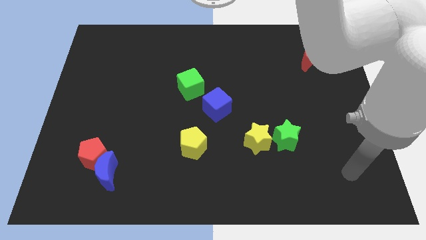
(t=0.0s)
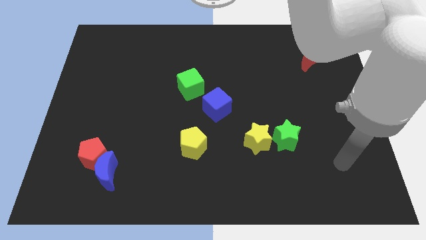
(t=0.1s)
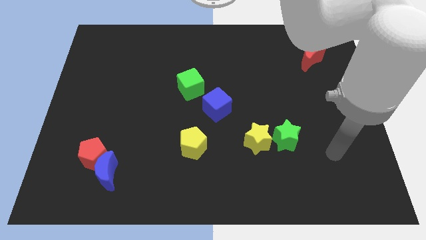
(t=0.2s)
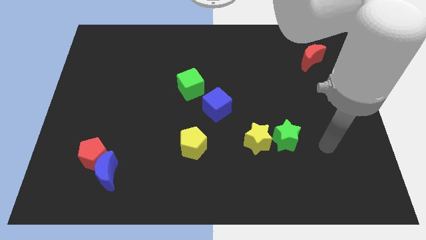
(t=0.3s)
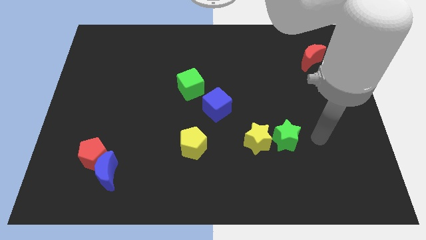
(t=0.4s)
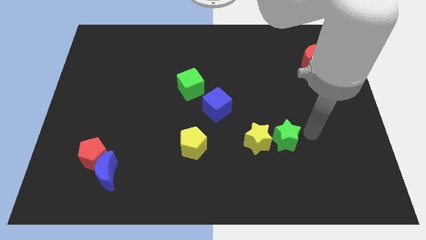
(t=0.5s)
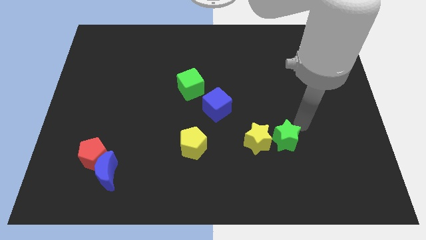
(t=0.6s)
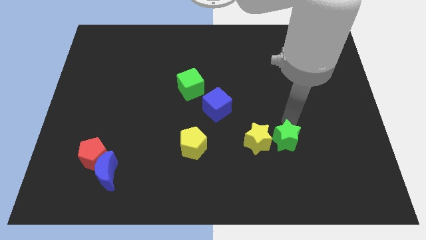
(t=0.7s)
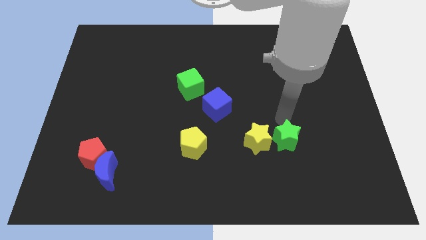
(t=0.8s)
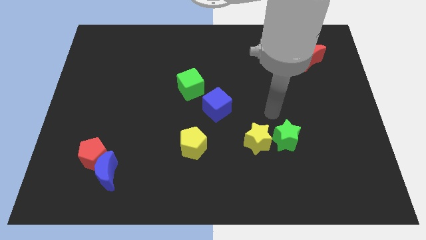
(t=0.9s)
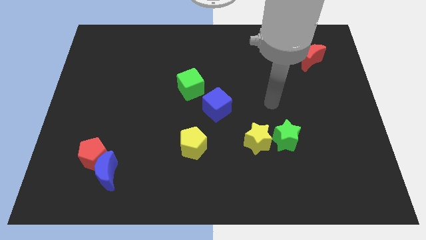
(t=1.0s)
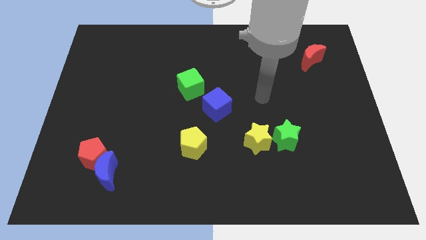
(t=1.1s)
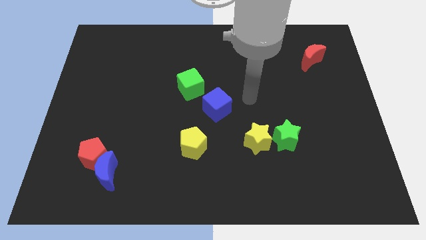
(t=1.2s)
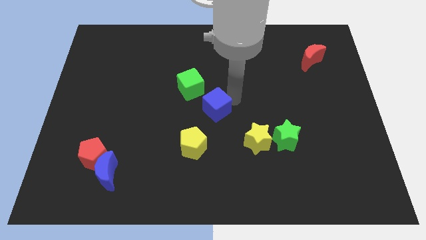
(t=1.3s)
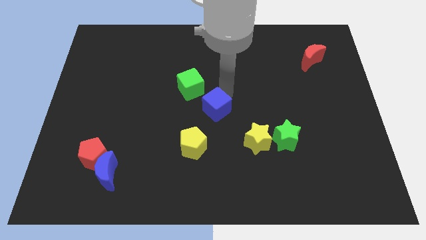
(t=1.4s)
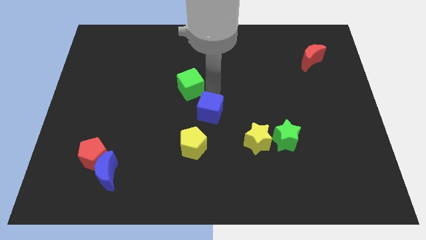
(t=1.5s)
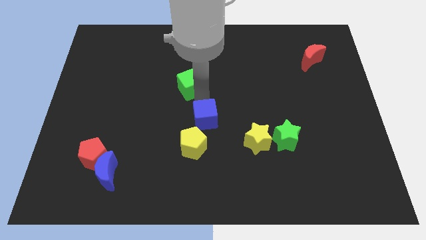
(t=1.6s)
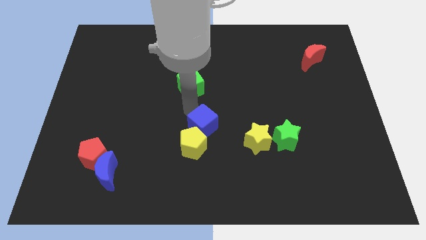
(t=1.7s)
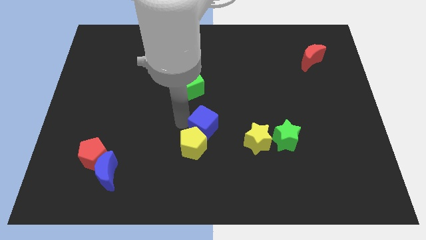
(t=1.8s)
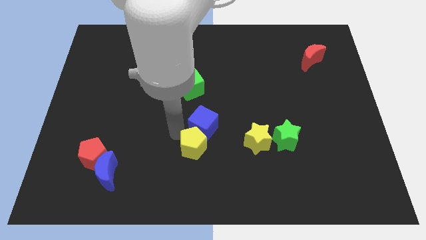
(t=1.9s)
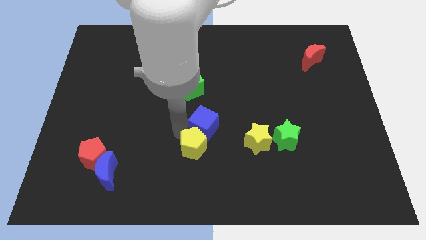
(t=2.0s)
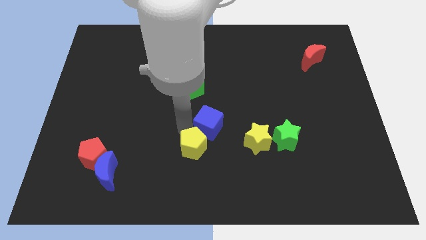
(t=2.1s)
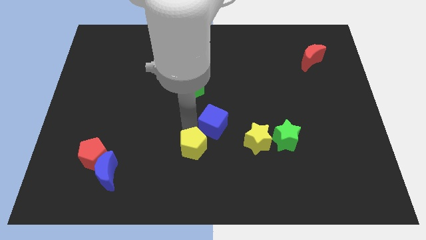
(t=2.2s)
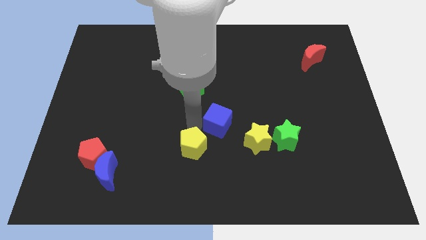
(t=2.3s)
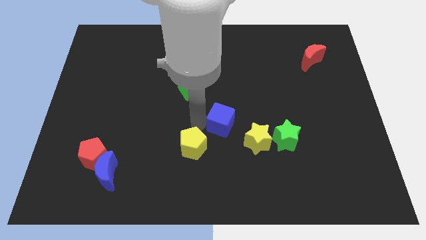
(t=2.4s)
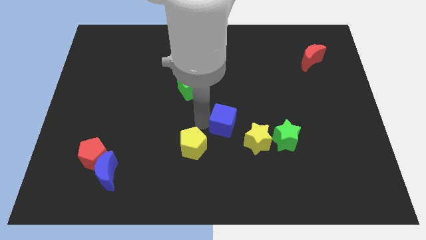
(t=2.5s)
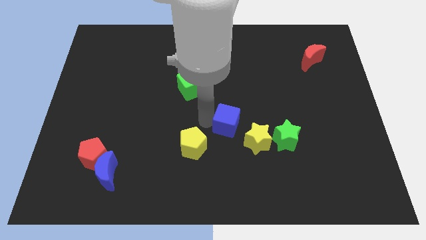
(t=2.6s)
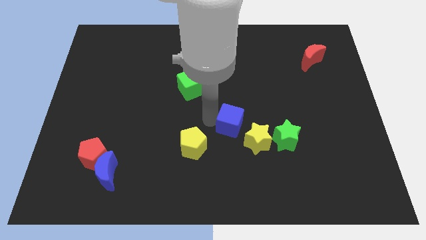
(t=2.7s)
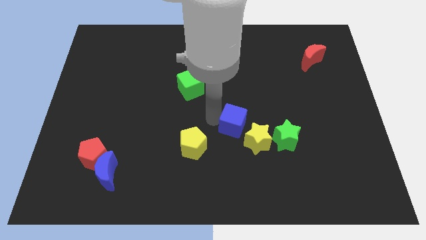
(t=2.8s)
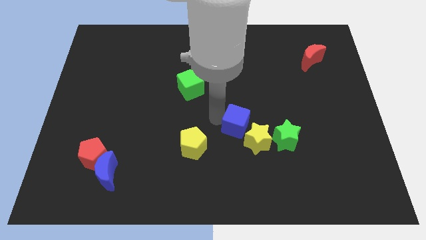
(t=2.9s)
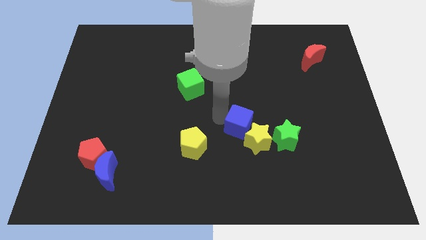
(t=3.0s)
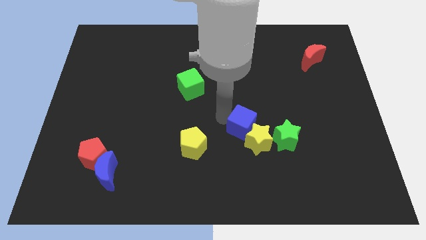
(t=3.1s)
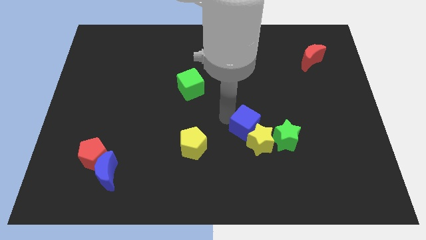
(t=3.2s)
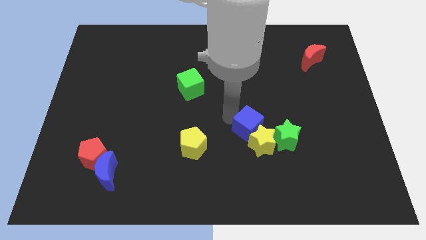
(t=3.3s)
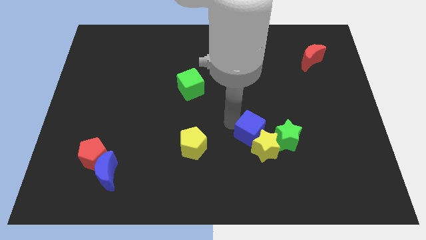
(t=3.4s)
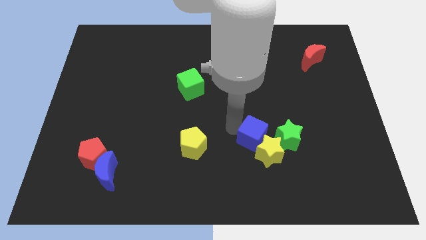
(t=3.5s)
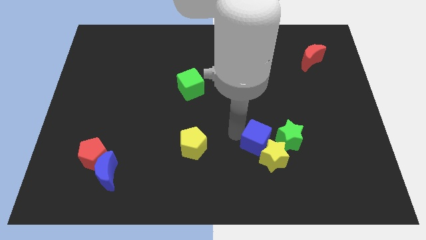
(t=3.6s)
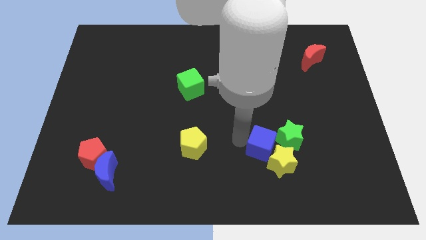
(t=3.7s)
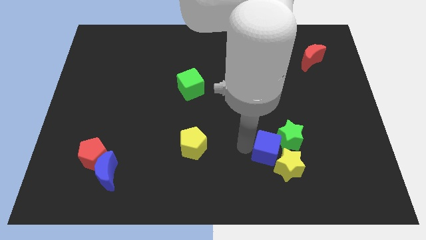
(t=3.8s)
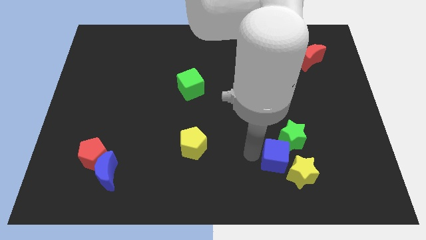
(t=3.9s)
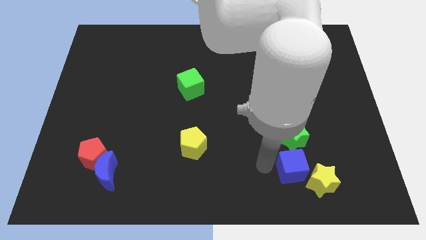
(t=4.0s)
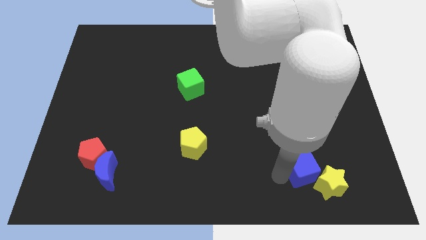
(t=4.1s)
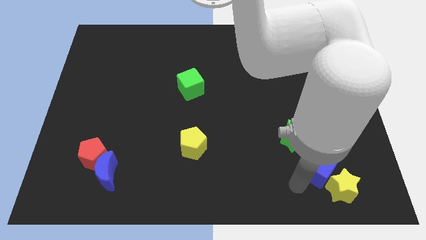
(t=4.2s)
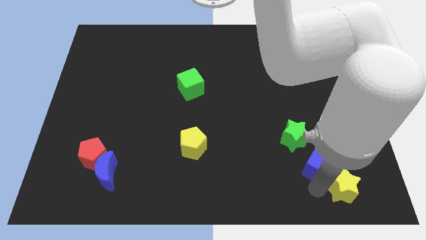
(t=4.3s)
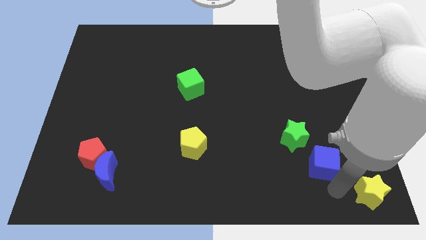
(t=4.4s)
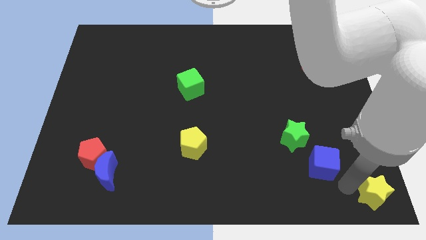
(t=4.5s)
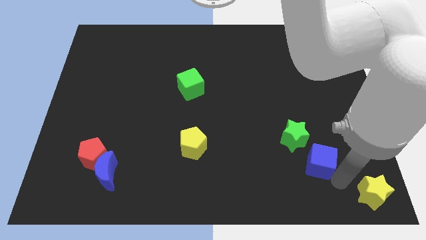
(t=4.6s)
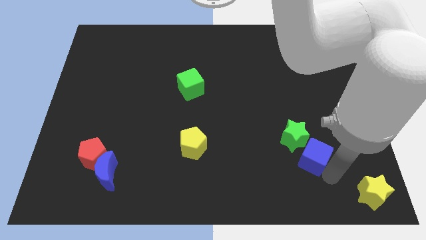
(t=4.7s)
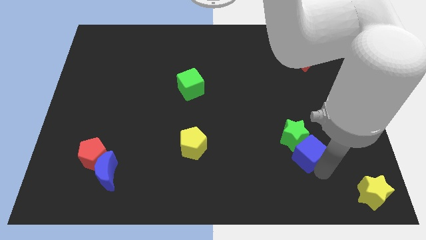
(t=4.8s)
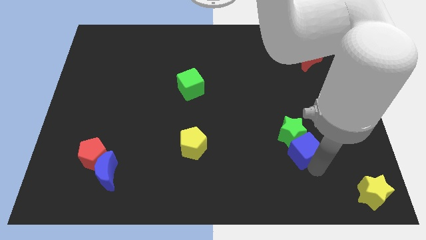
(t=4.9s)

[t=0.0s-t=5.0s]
slide the blue cube to the right a little

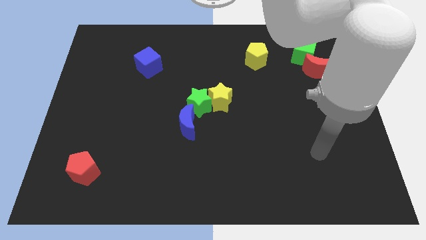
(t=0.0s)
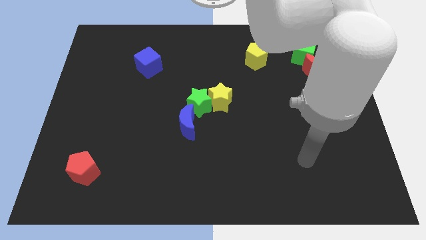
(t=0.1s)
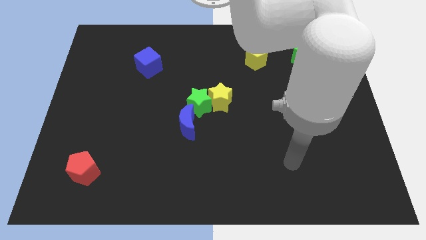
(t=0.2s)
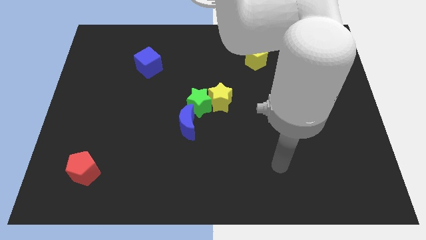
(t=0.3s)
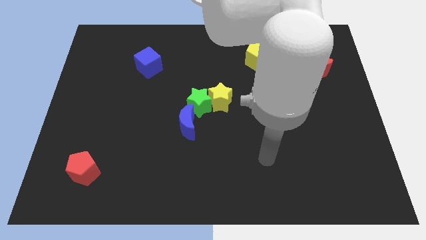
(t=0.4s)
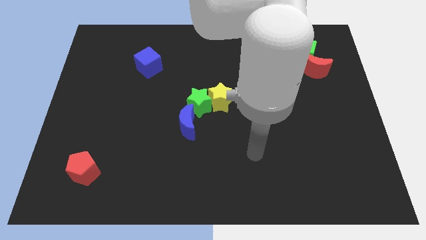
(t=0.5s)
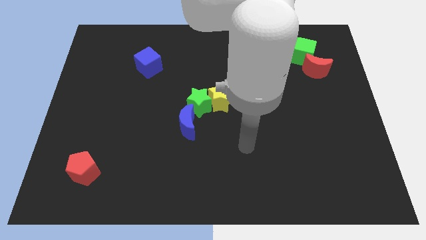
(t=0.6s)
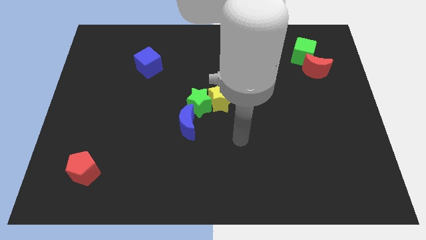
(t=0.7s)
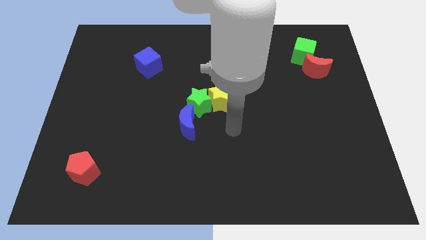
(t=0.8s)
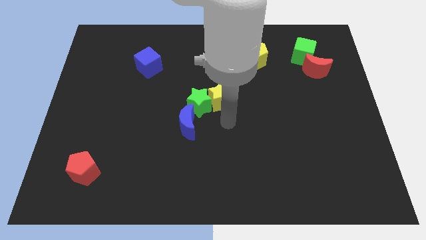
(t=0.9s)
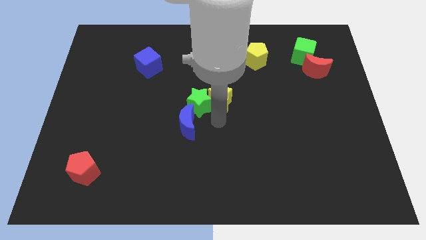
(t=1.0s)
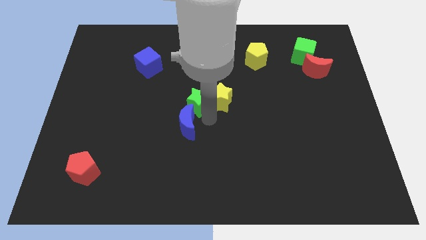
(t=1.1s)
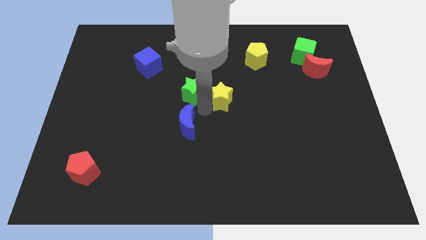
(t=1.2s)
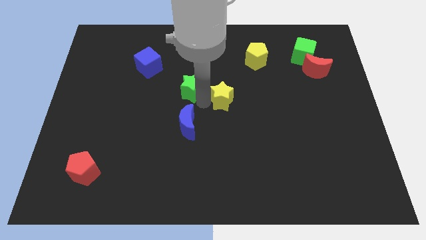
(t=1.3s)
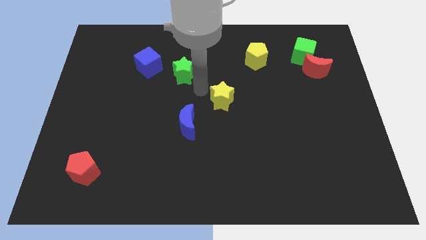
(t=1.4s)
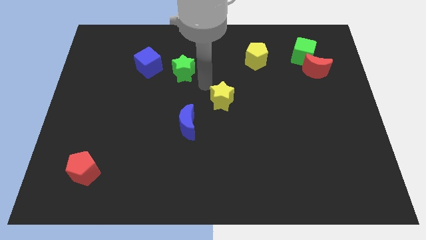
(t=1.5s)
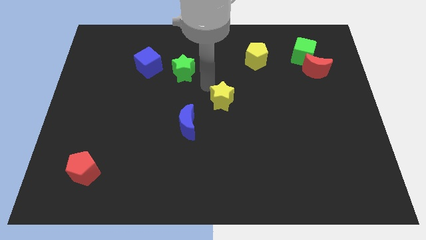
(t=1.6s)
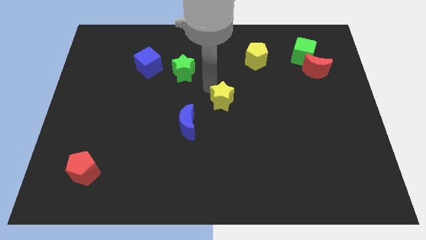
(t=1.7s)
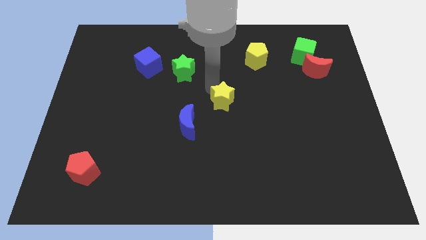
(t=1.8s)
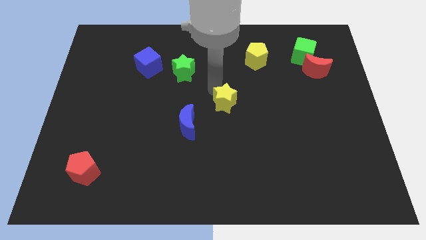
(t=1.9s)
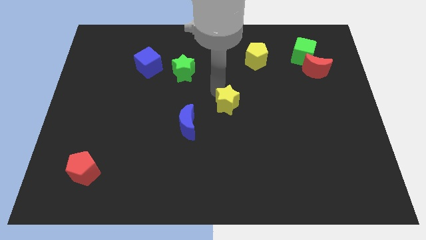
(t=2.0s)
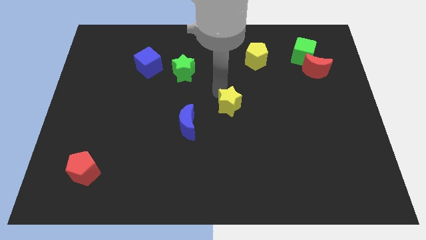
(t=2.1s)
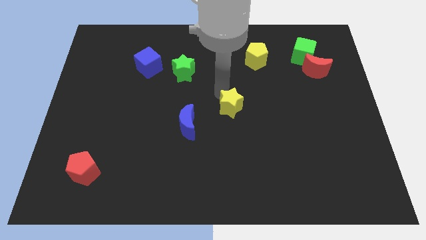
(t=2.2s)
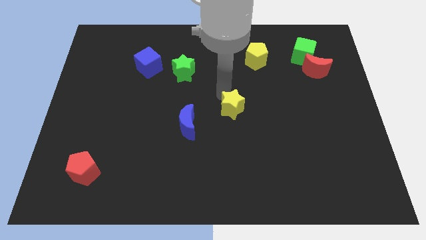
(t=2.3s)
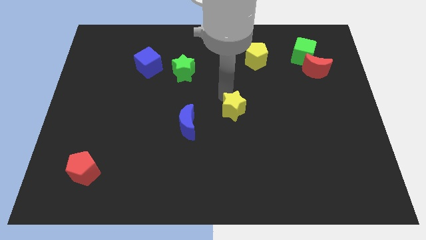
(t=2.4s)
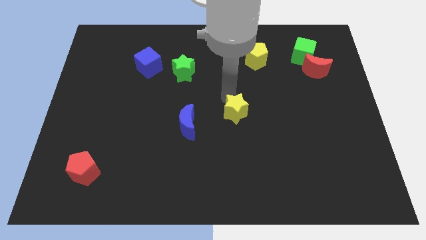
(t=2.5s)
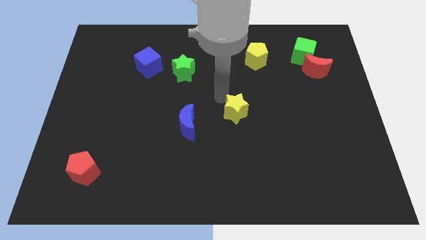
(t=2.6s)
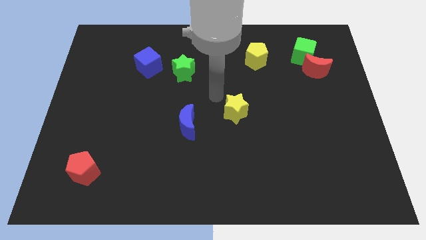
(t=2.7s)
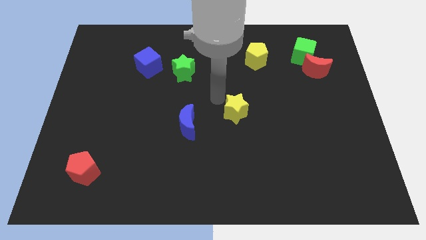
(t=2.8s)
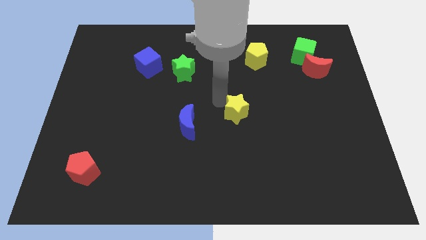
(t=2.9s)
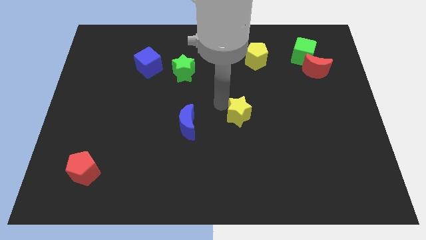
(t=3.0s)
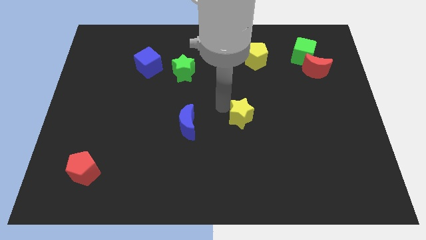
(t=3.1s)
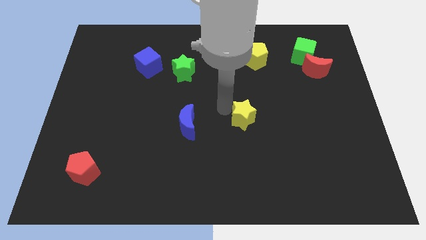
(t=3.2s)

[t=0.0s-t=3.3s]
push the yellow star a little down and then to the right
